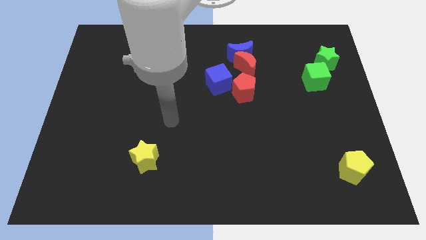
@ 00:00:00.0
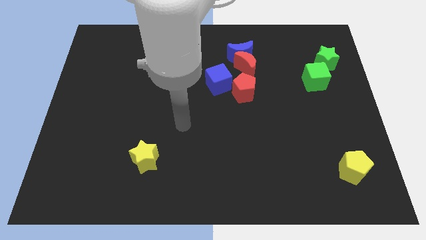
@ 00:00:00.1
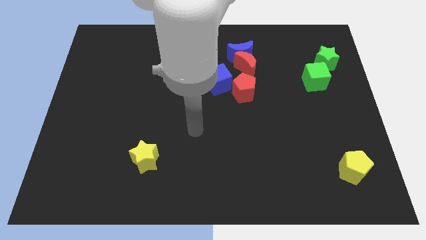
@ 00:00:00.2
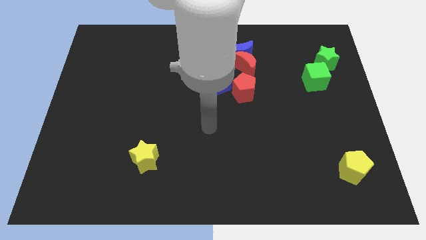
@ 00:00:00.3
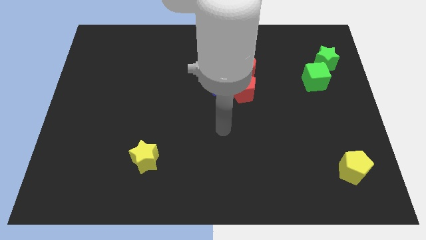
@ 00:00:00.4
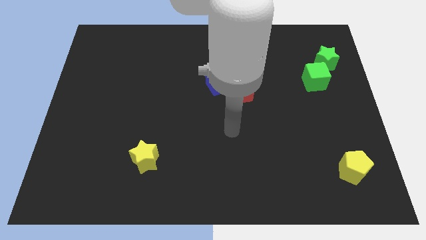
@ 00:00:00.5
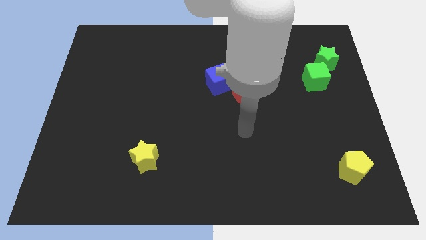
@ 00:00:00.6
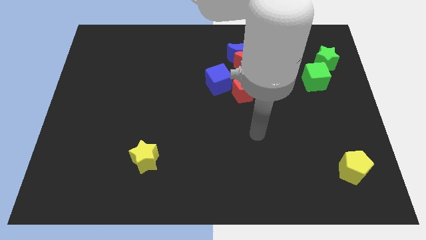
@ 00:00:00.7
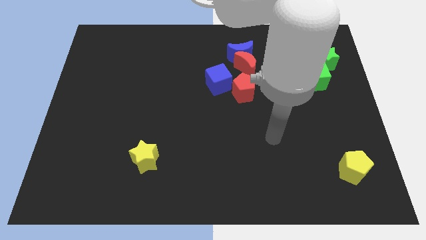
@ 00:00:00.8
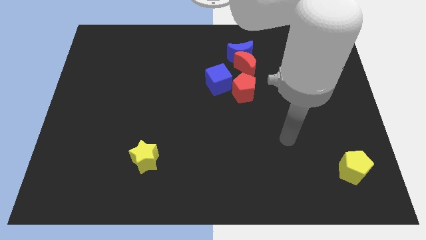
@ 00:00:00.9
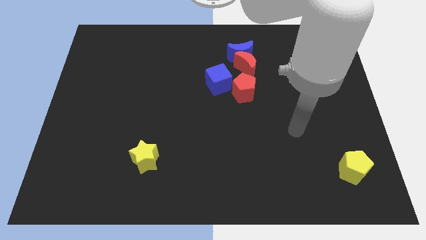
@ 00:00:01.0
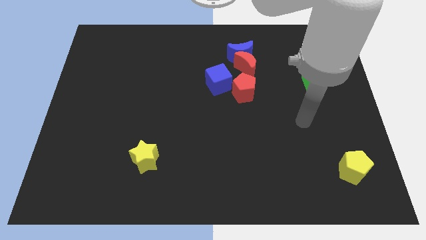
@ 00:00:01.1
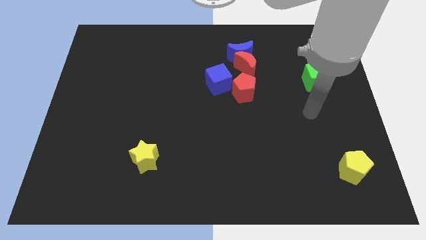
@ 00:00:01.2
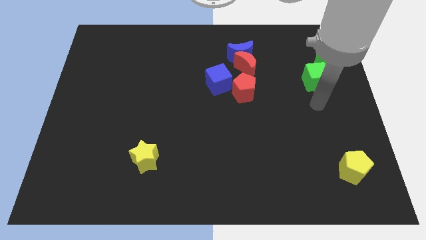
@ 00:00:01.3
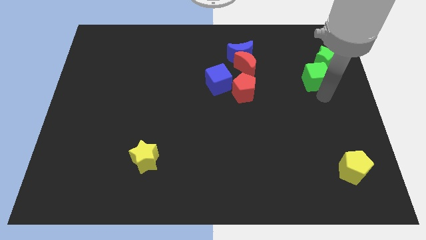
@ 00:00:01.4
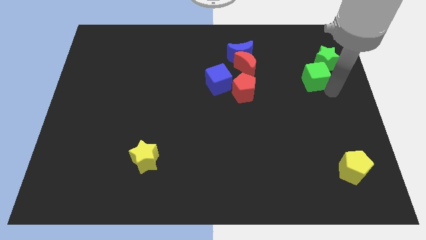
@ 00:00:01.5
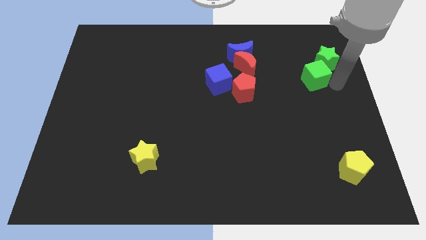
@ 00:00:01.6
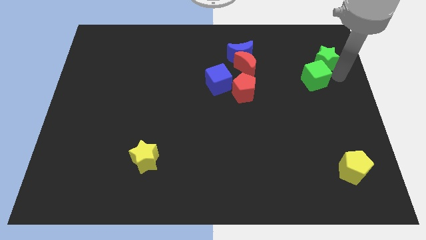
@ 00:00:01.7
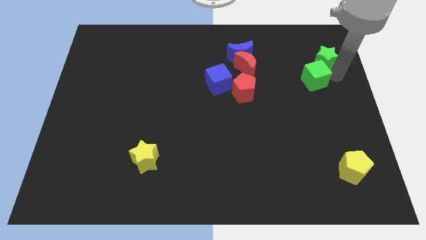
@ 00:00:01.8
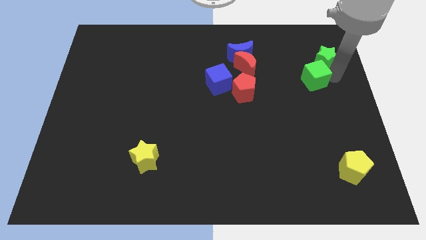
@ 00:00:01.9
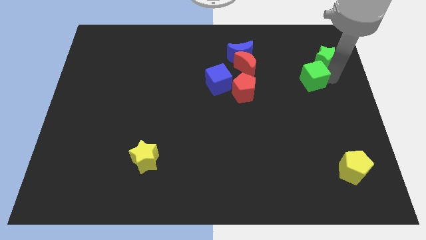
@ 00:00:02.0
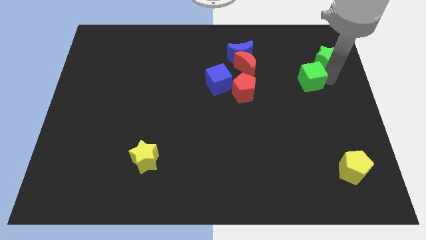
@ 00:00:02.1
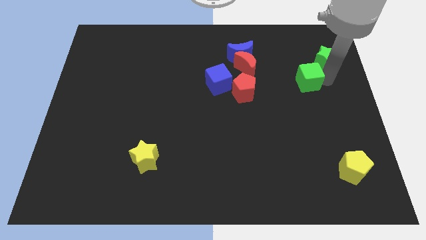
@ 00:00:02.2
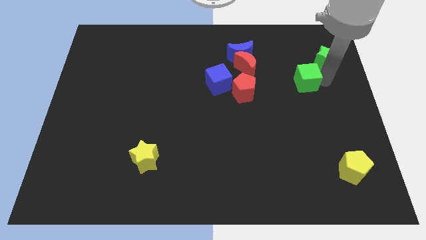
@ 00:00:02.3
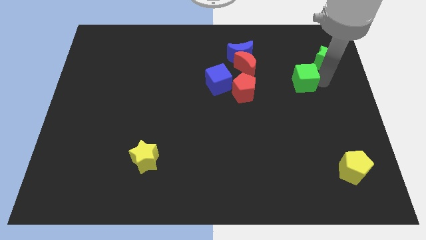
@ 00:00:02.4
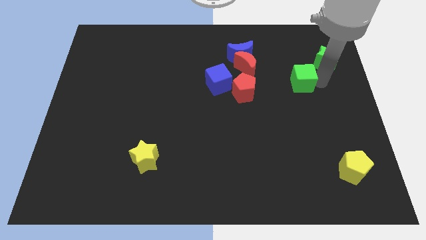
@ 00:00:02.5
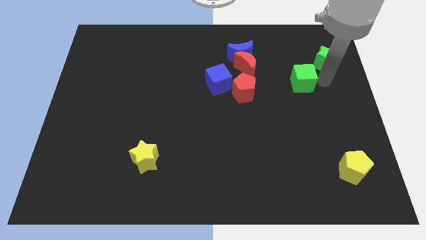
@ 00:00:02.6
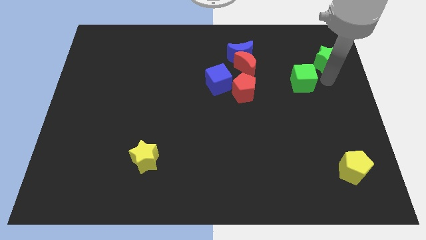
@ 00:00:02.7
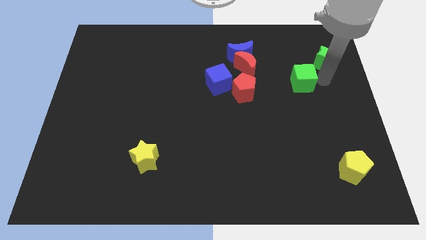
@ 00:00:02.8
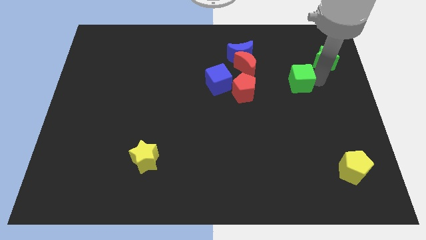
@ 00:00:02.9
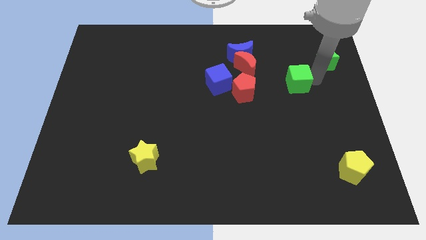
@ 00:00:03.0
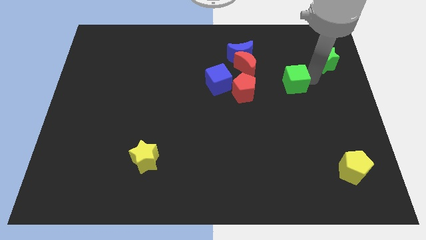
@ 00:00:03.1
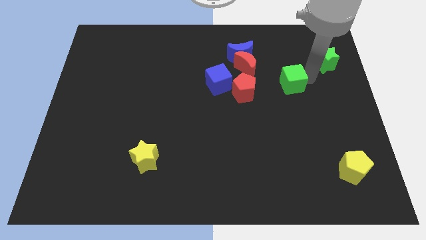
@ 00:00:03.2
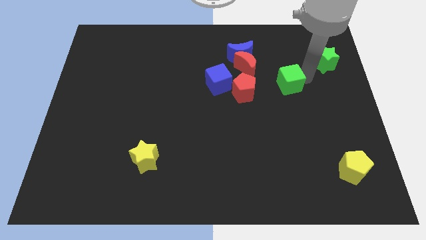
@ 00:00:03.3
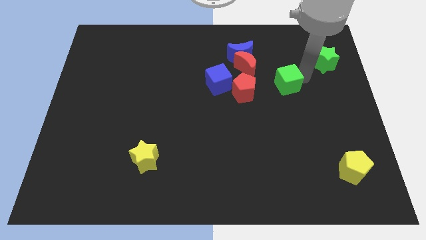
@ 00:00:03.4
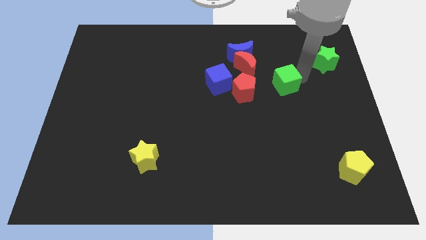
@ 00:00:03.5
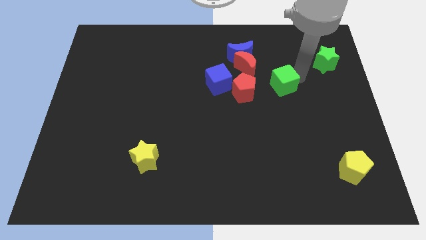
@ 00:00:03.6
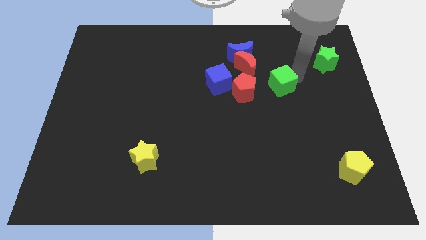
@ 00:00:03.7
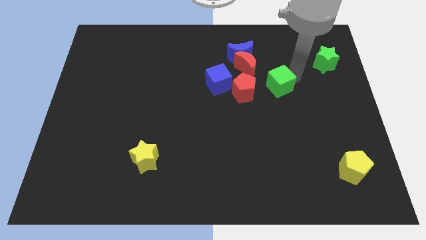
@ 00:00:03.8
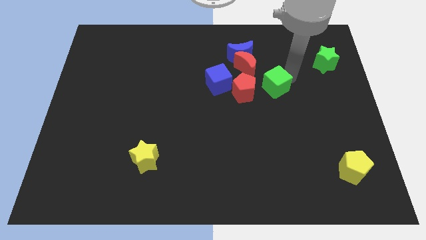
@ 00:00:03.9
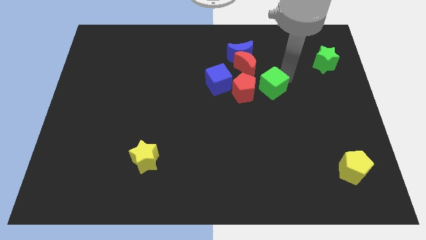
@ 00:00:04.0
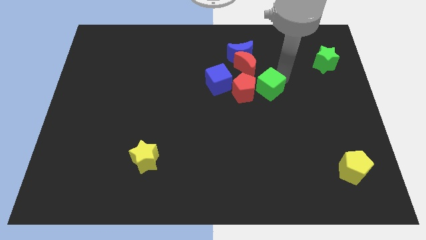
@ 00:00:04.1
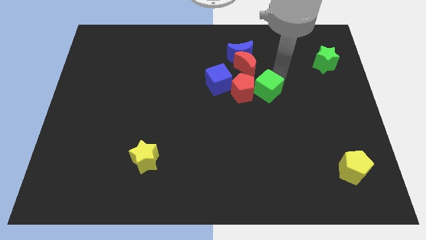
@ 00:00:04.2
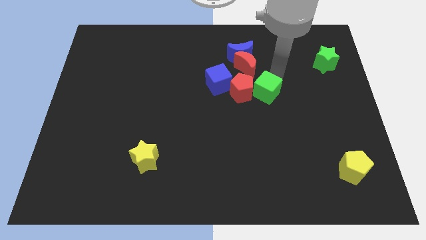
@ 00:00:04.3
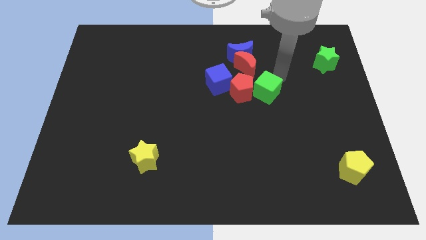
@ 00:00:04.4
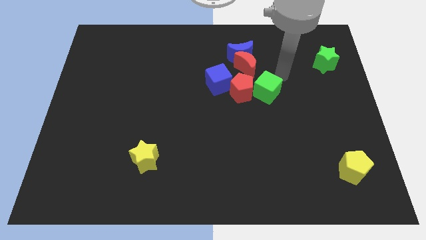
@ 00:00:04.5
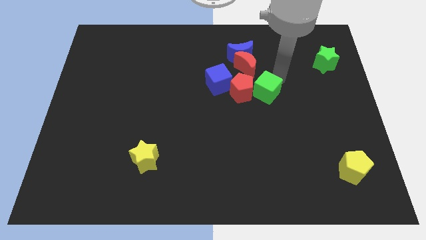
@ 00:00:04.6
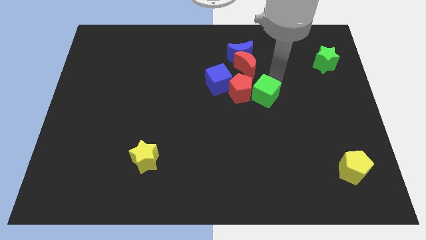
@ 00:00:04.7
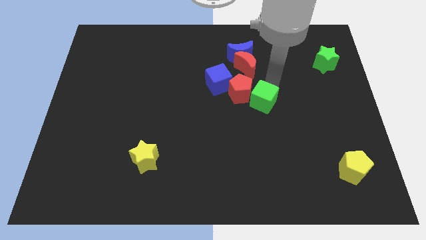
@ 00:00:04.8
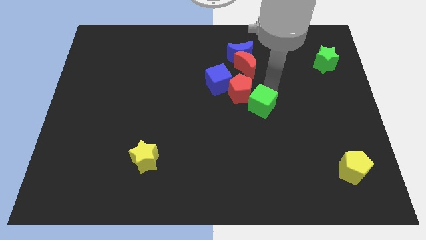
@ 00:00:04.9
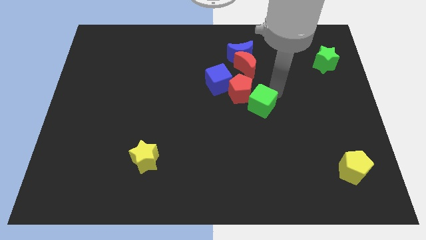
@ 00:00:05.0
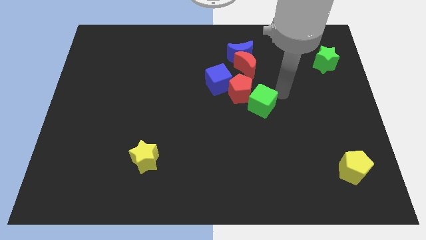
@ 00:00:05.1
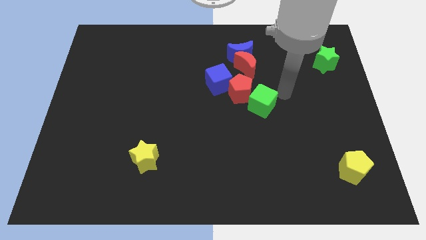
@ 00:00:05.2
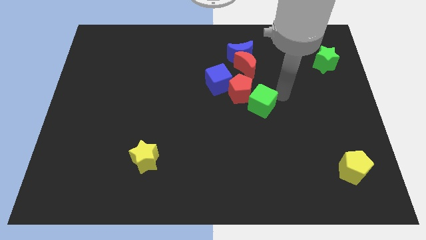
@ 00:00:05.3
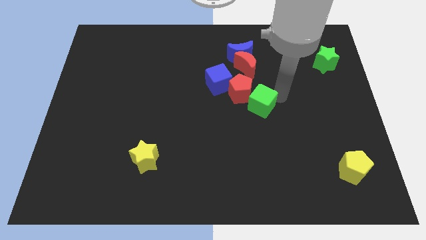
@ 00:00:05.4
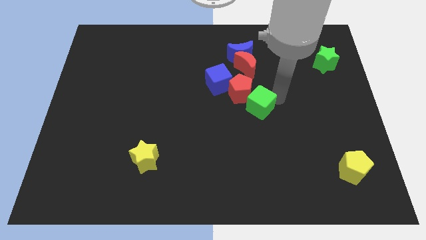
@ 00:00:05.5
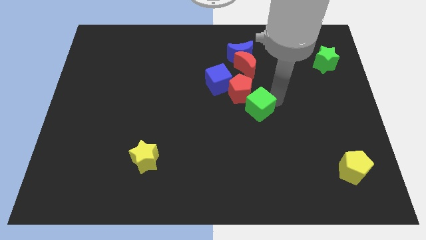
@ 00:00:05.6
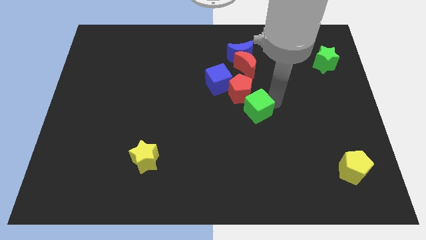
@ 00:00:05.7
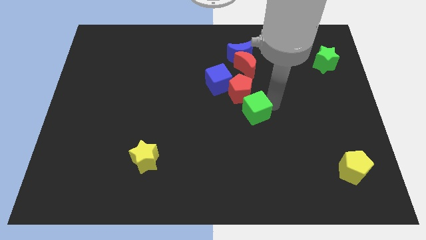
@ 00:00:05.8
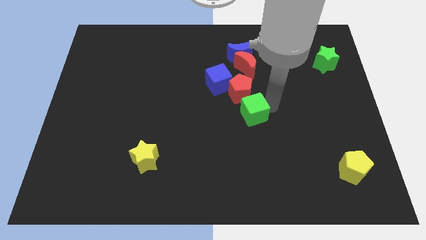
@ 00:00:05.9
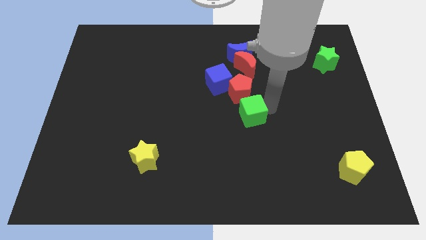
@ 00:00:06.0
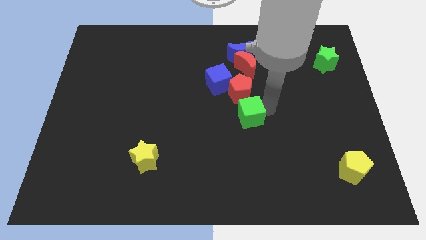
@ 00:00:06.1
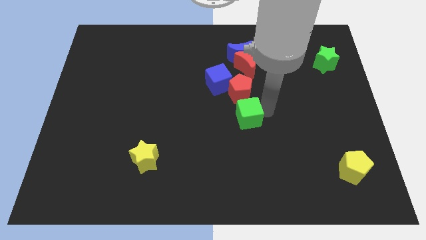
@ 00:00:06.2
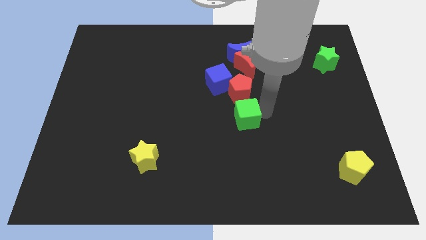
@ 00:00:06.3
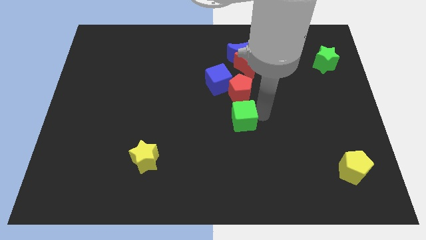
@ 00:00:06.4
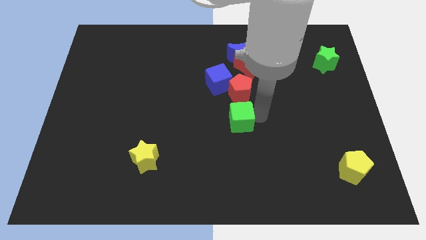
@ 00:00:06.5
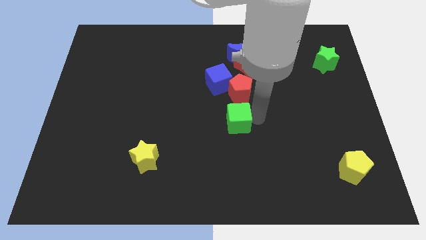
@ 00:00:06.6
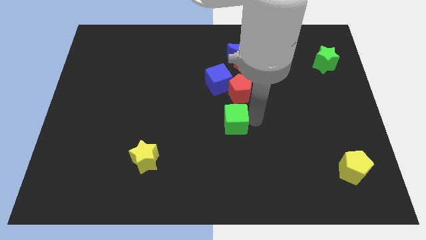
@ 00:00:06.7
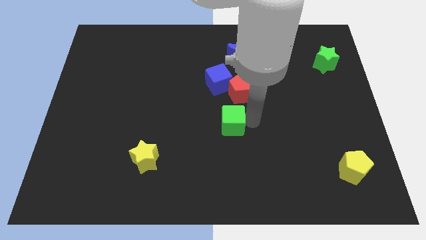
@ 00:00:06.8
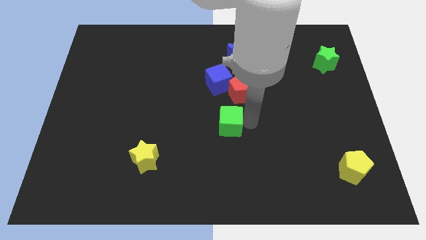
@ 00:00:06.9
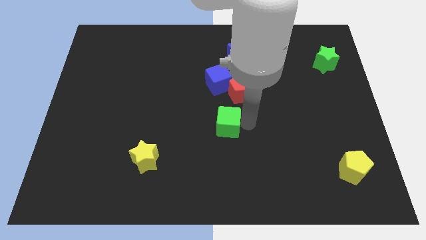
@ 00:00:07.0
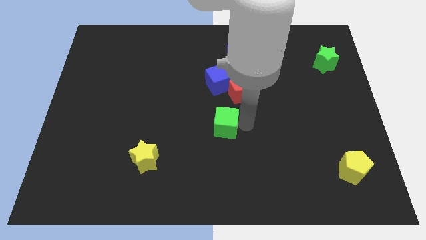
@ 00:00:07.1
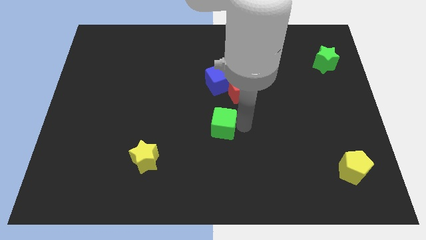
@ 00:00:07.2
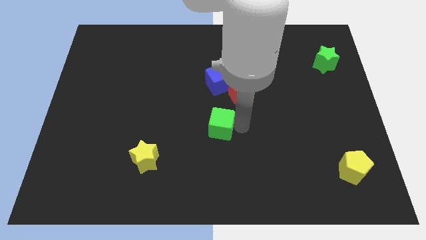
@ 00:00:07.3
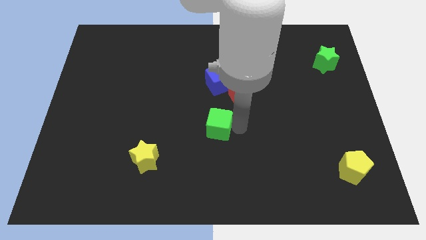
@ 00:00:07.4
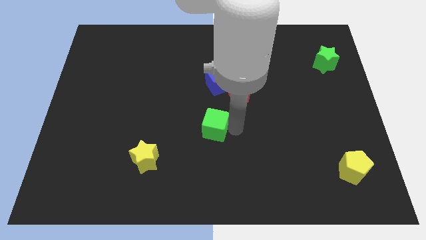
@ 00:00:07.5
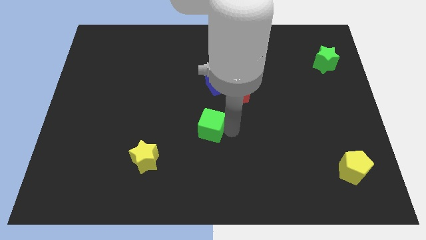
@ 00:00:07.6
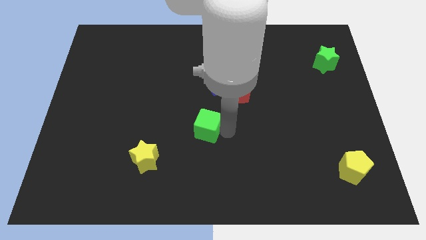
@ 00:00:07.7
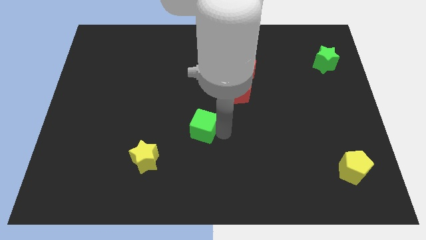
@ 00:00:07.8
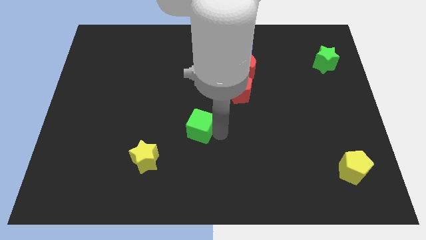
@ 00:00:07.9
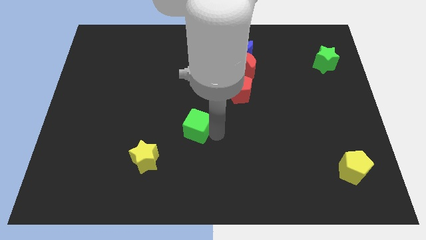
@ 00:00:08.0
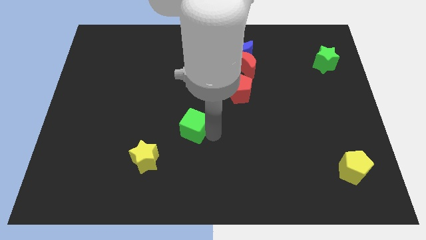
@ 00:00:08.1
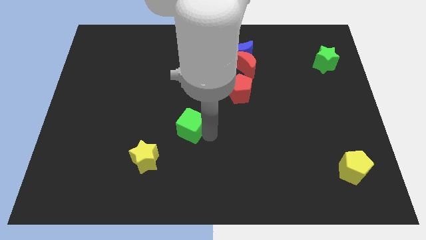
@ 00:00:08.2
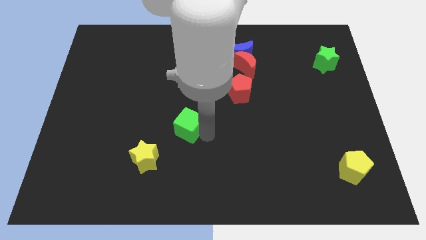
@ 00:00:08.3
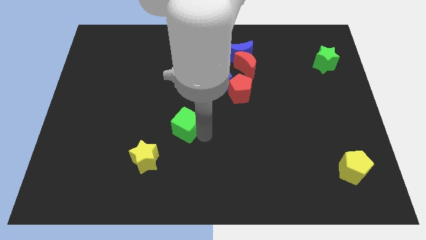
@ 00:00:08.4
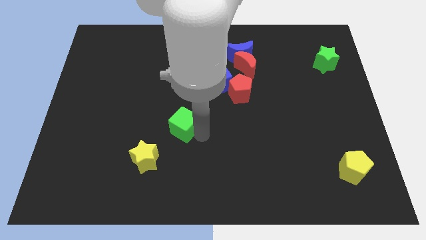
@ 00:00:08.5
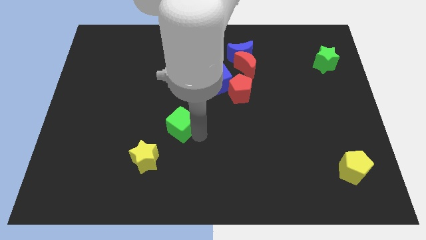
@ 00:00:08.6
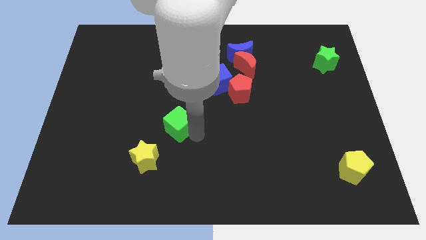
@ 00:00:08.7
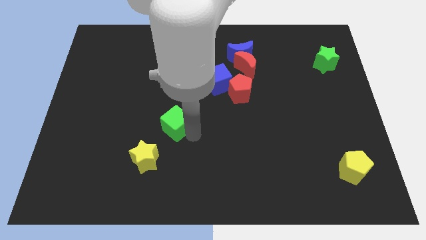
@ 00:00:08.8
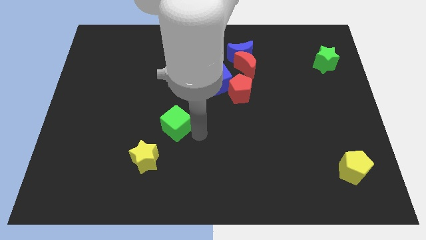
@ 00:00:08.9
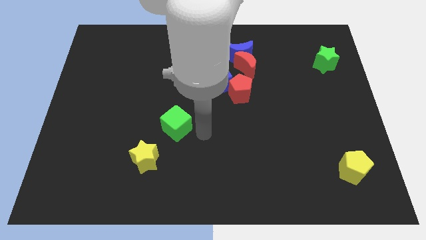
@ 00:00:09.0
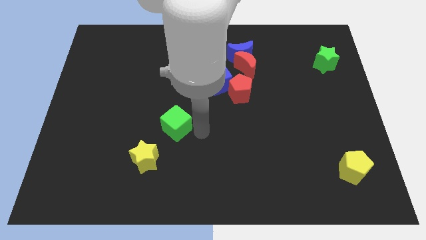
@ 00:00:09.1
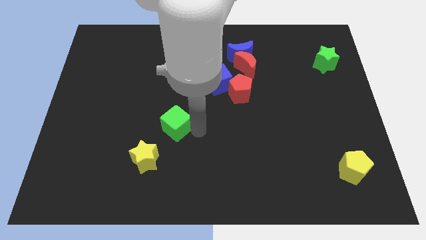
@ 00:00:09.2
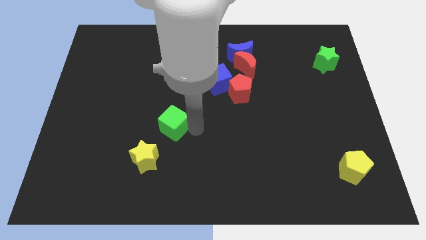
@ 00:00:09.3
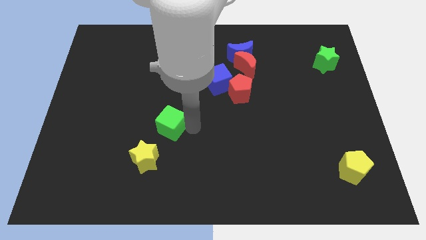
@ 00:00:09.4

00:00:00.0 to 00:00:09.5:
slide the green cube above the yellow star
